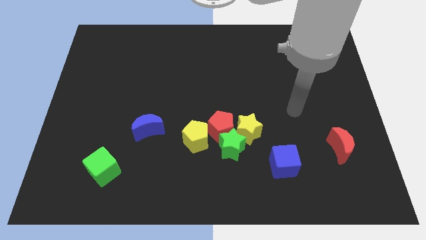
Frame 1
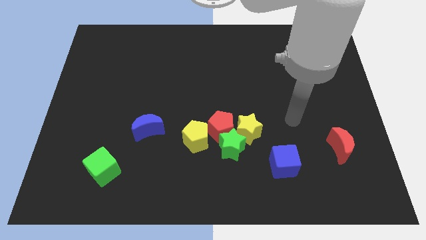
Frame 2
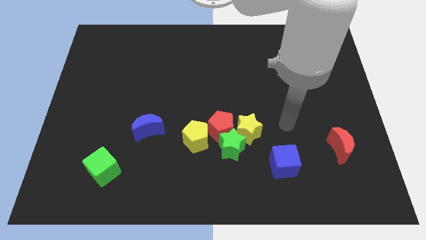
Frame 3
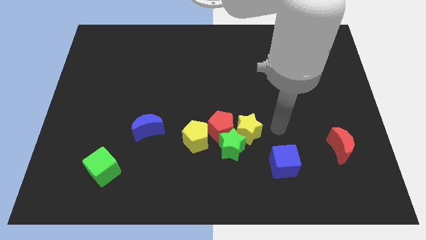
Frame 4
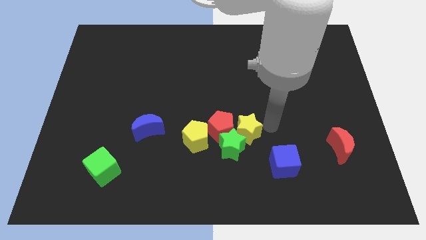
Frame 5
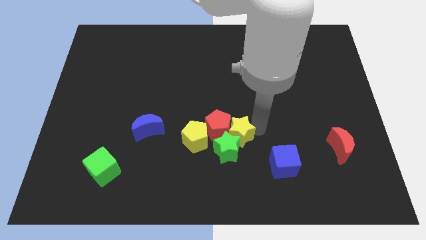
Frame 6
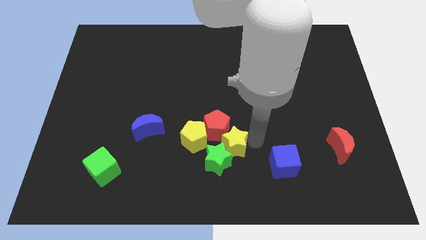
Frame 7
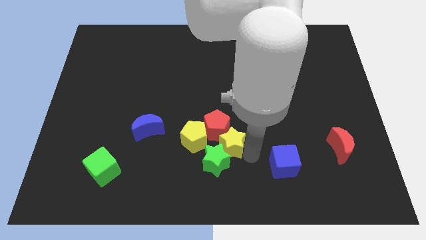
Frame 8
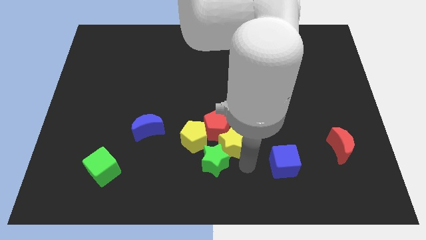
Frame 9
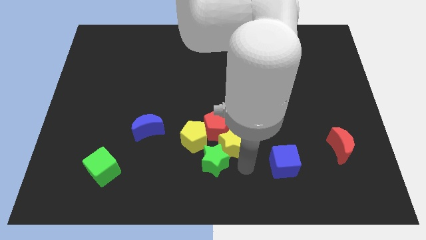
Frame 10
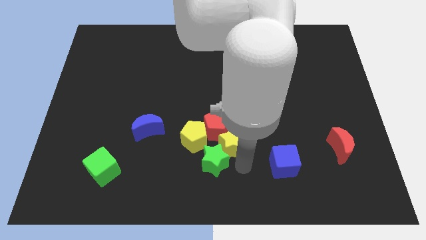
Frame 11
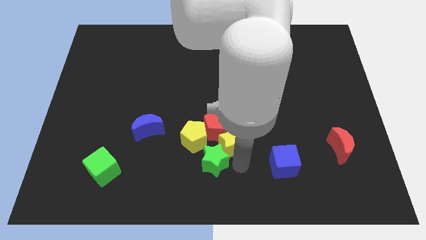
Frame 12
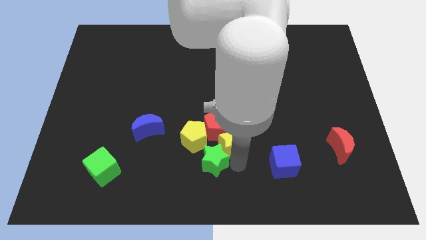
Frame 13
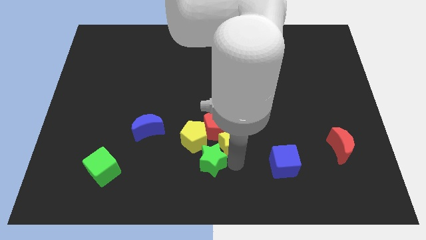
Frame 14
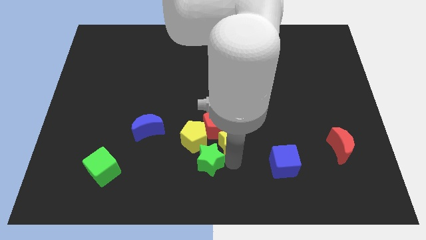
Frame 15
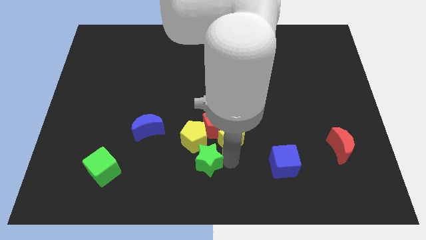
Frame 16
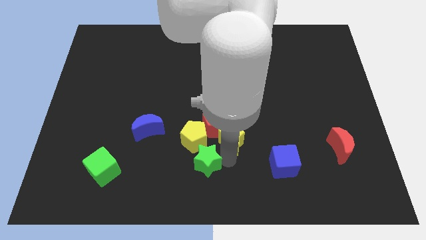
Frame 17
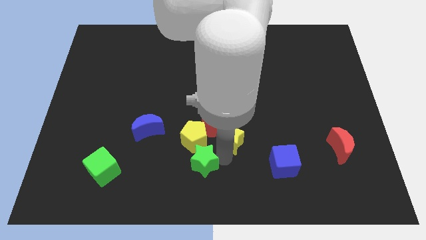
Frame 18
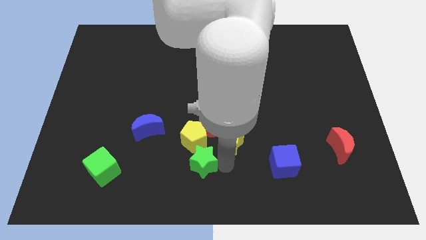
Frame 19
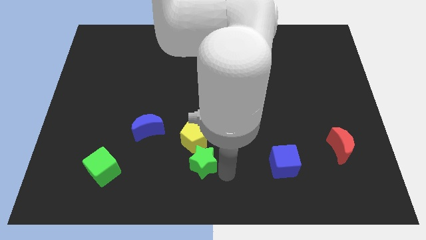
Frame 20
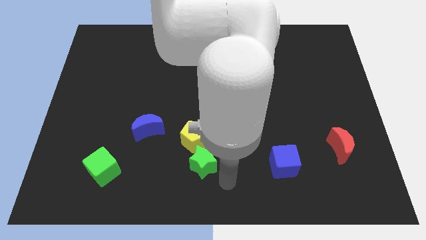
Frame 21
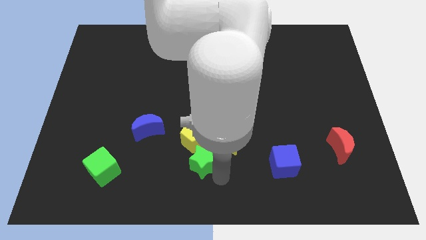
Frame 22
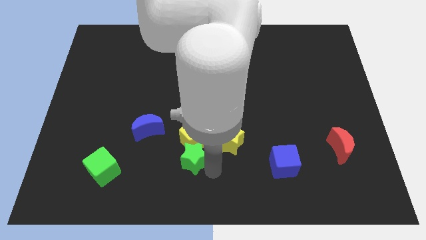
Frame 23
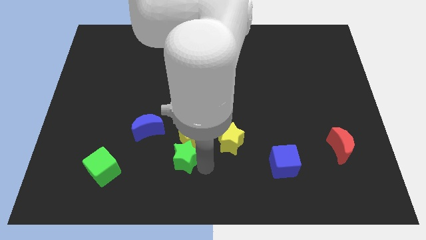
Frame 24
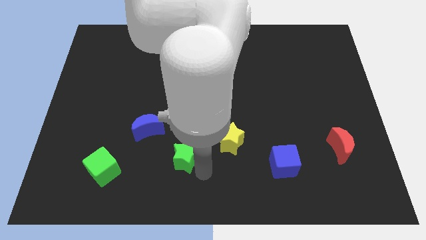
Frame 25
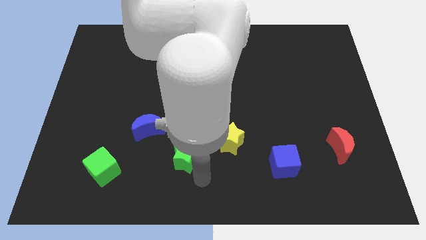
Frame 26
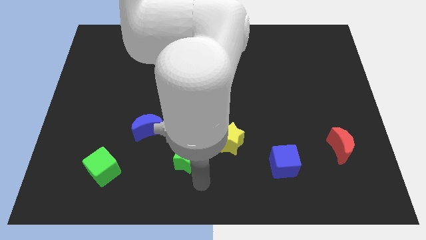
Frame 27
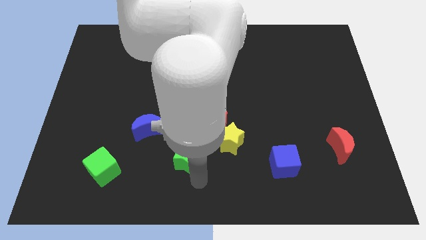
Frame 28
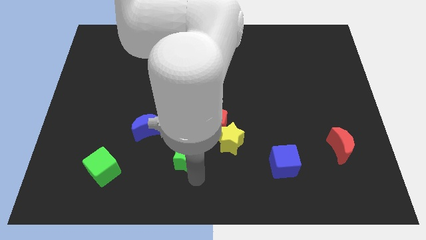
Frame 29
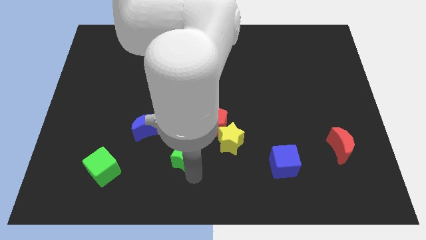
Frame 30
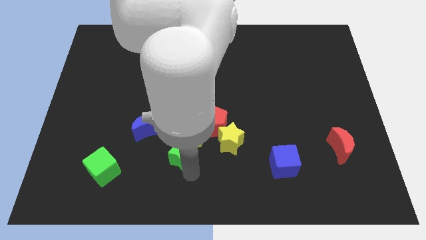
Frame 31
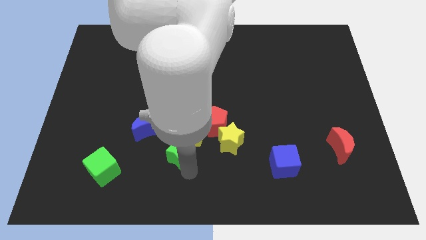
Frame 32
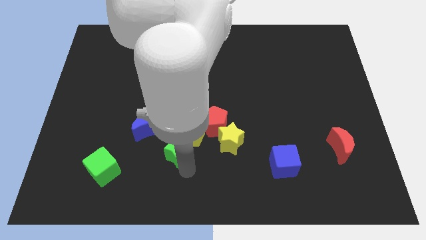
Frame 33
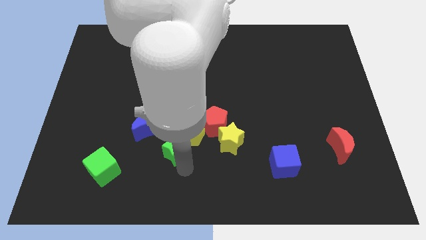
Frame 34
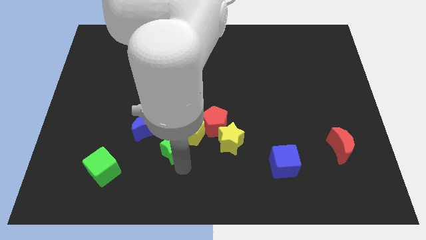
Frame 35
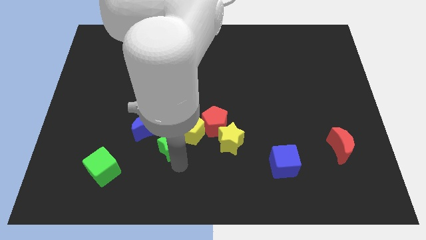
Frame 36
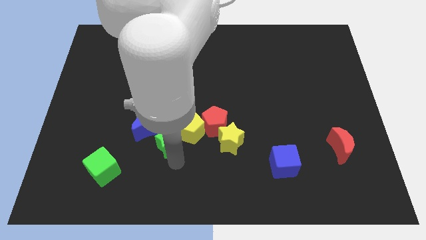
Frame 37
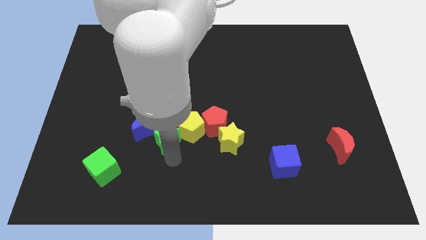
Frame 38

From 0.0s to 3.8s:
slightly move the green star upwards and left

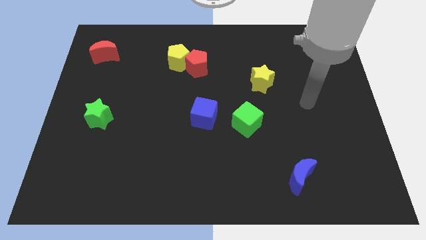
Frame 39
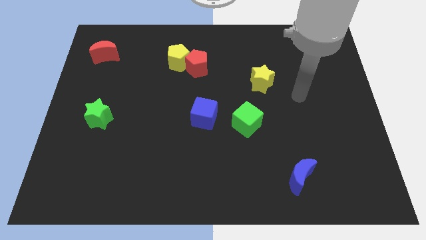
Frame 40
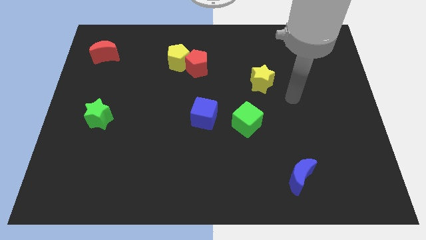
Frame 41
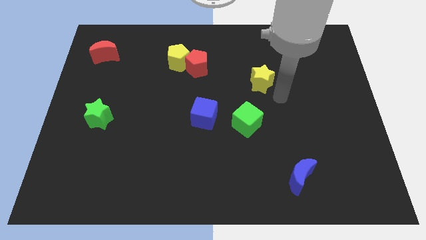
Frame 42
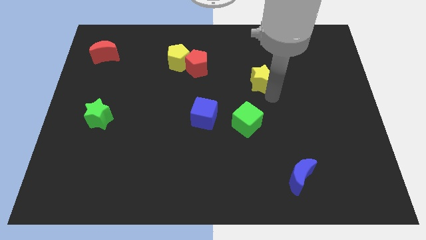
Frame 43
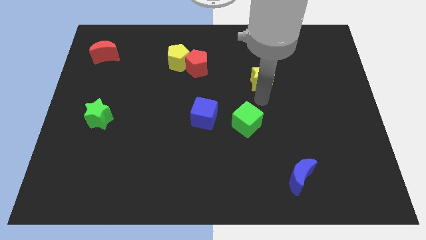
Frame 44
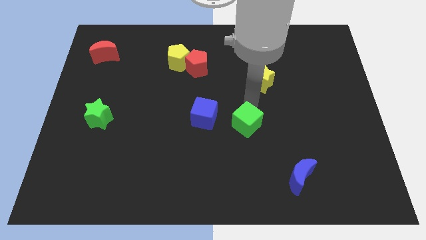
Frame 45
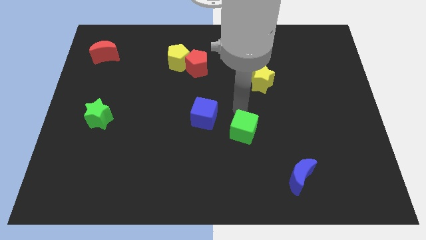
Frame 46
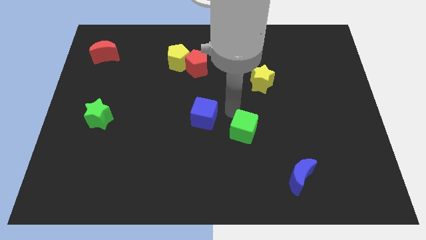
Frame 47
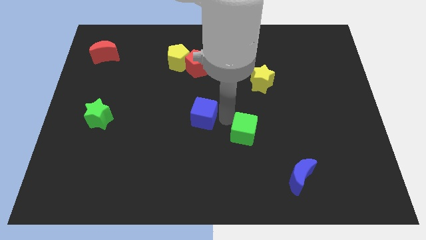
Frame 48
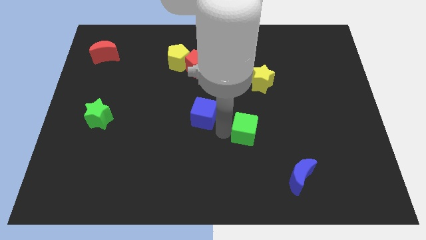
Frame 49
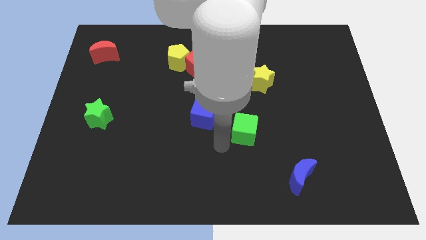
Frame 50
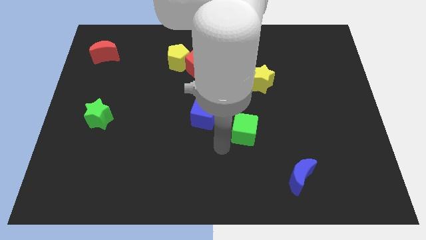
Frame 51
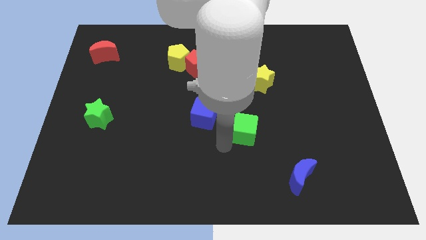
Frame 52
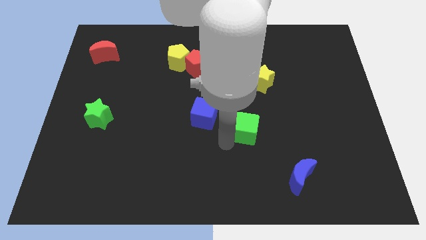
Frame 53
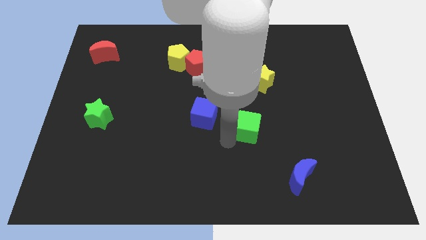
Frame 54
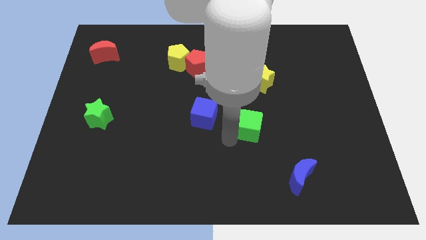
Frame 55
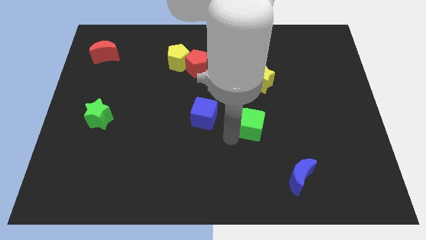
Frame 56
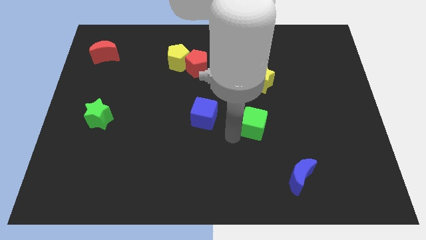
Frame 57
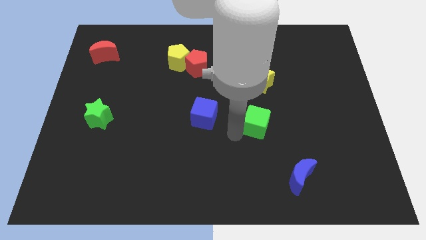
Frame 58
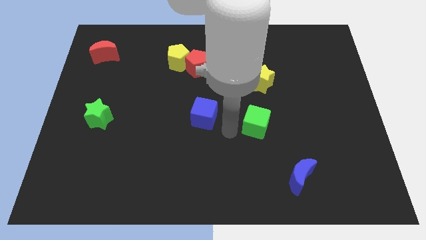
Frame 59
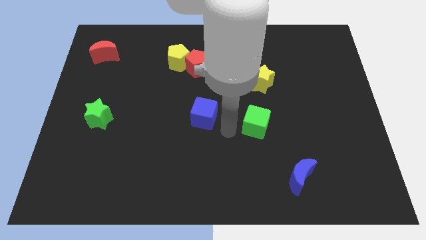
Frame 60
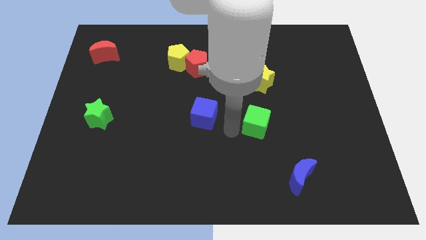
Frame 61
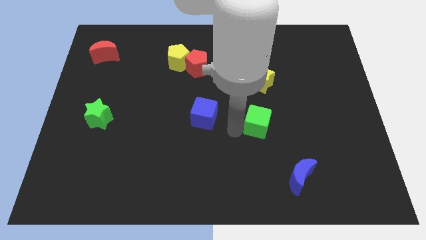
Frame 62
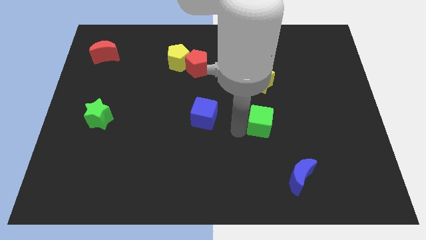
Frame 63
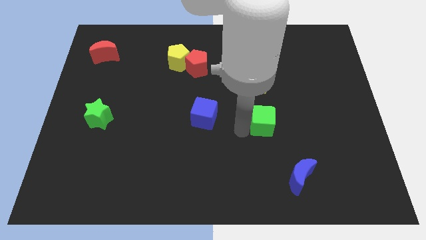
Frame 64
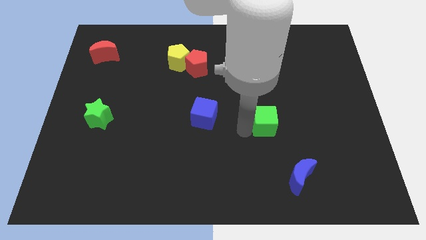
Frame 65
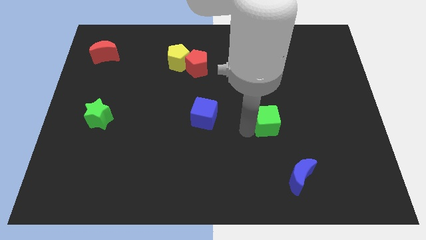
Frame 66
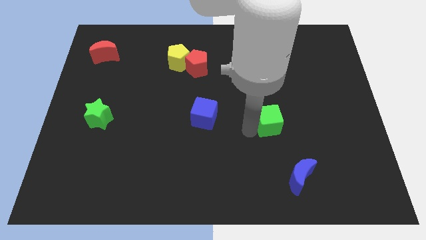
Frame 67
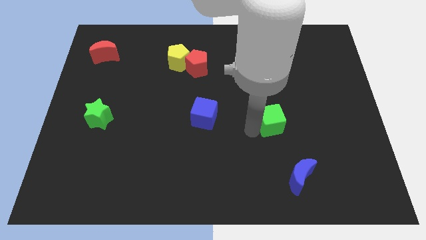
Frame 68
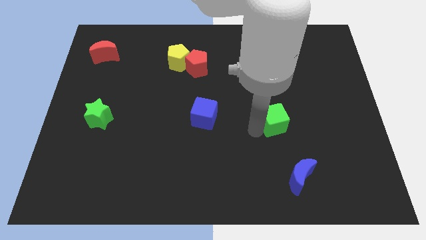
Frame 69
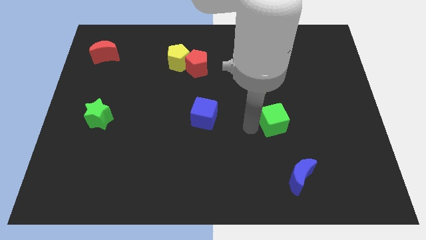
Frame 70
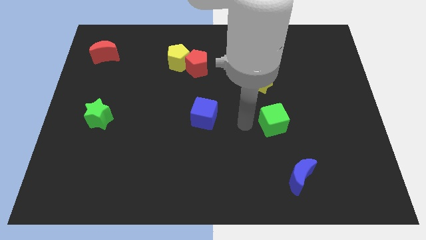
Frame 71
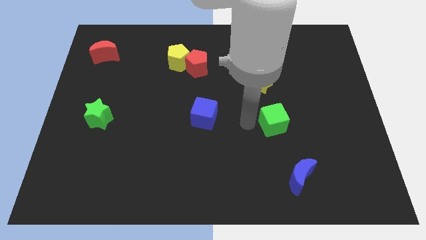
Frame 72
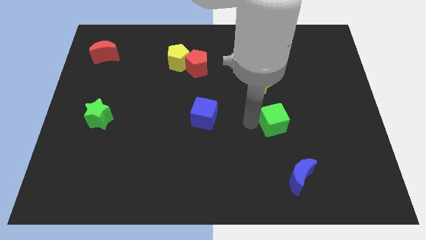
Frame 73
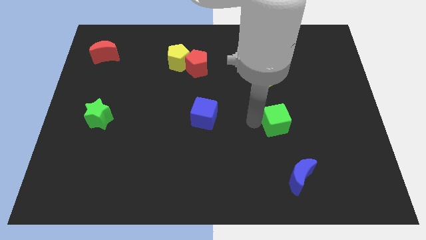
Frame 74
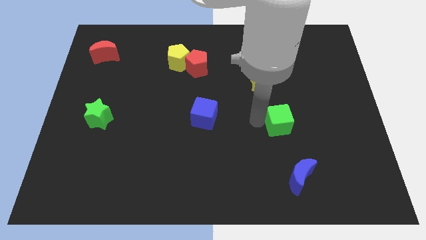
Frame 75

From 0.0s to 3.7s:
move the green cube right a bit

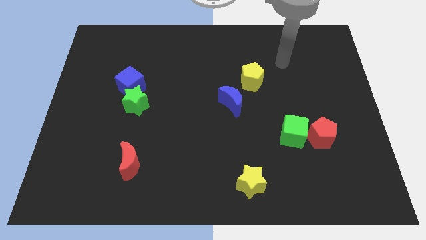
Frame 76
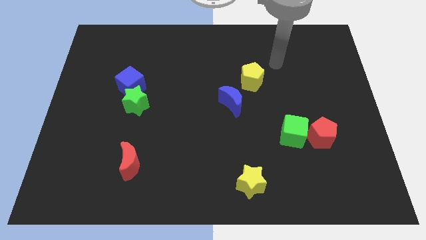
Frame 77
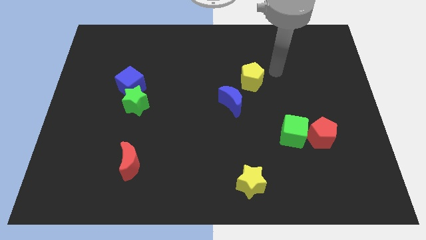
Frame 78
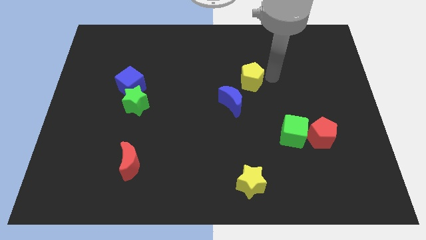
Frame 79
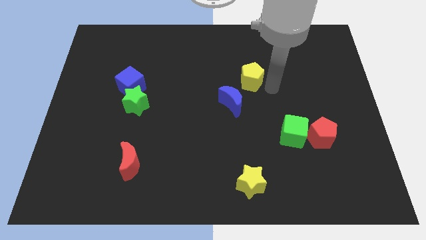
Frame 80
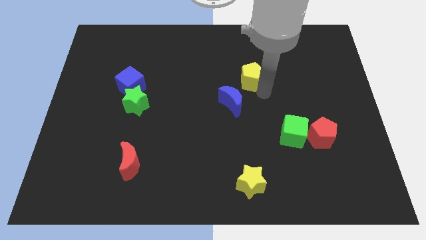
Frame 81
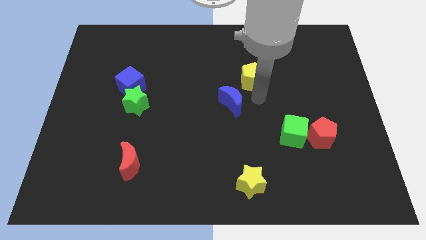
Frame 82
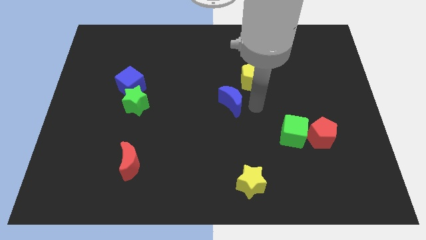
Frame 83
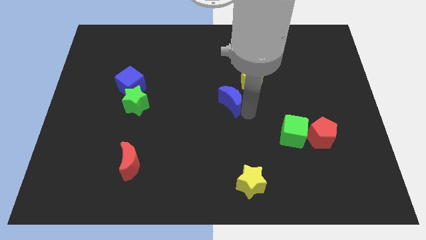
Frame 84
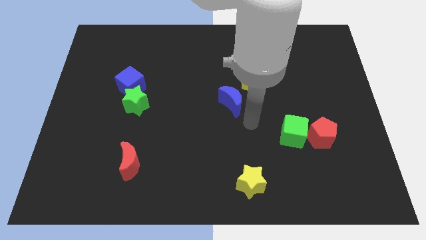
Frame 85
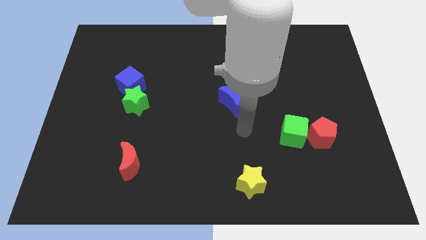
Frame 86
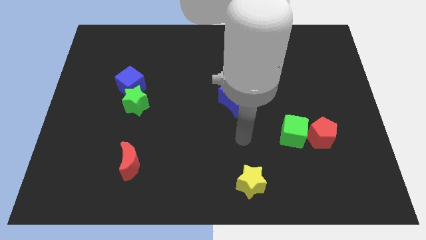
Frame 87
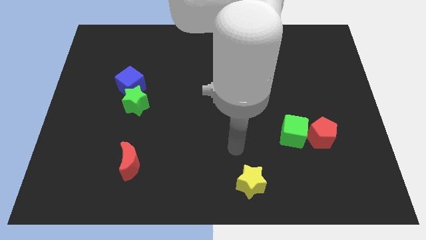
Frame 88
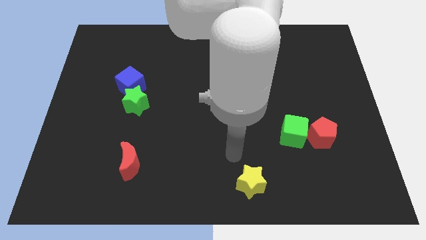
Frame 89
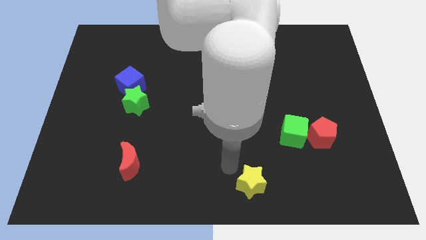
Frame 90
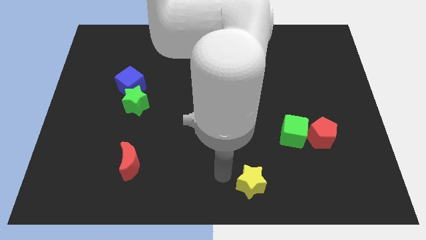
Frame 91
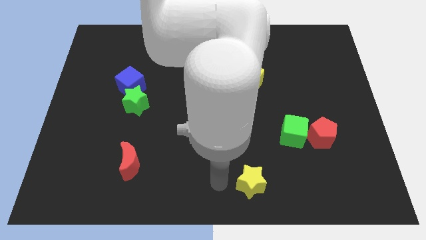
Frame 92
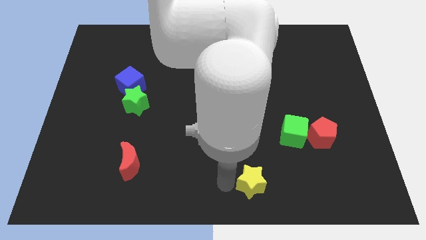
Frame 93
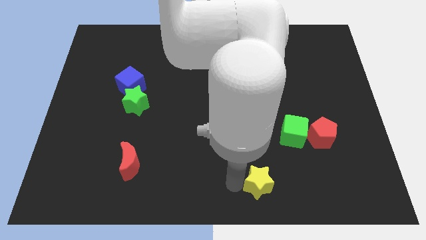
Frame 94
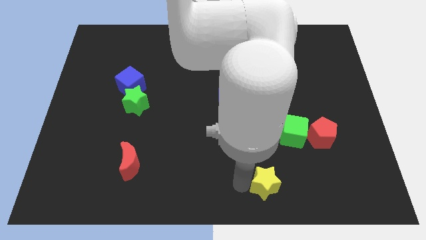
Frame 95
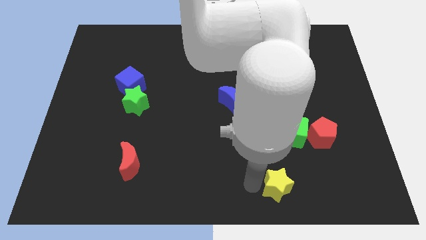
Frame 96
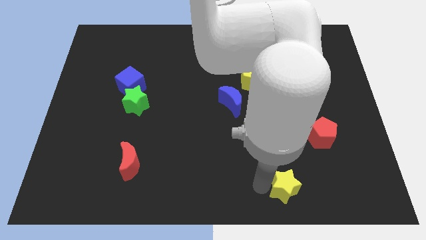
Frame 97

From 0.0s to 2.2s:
move the yellow star somewhat right
